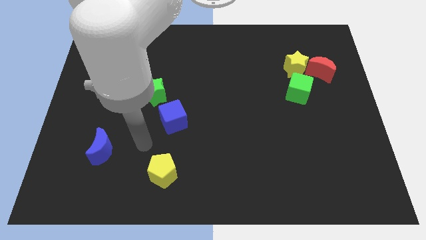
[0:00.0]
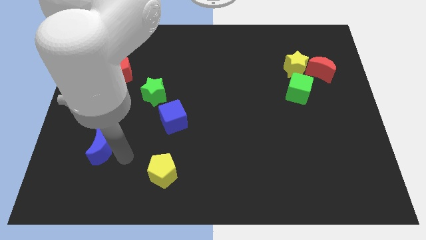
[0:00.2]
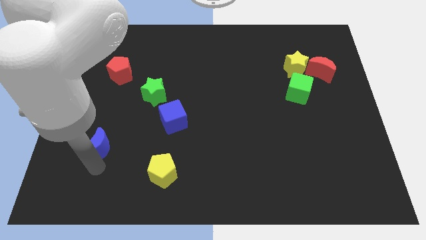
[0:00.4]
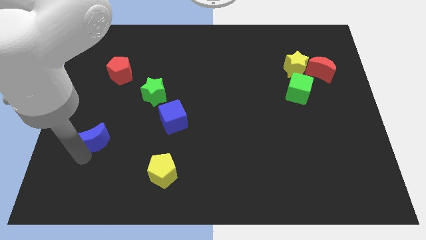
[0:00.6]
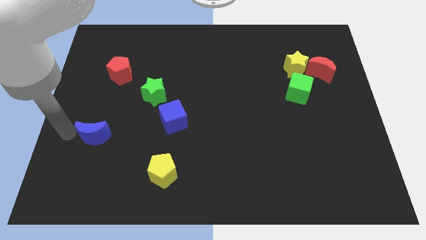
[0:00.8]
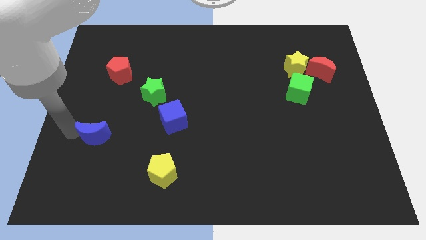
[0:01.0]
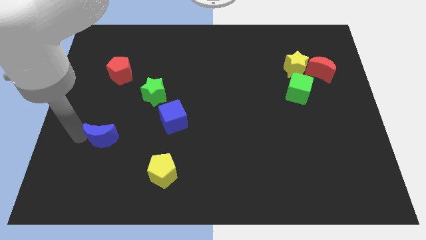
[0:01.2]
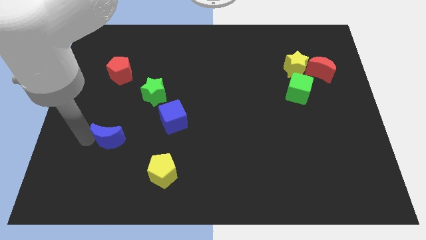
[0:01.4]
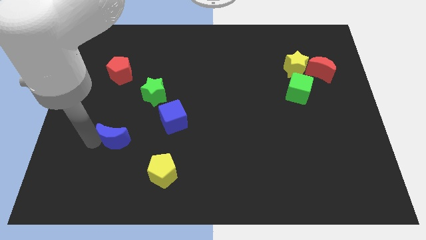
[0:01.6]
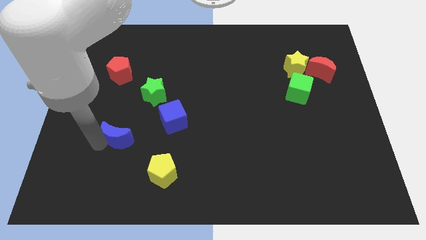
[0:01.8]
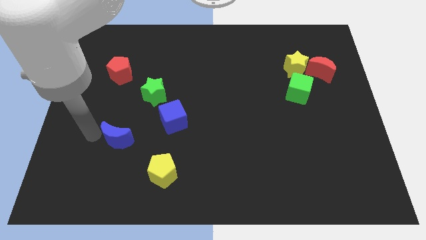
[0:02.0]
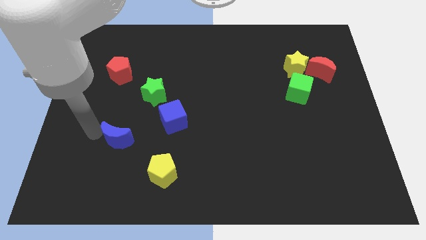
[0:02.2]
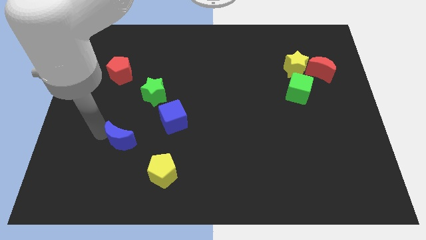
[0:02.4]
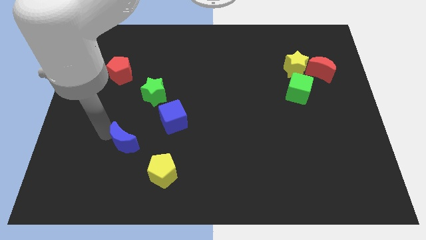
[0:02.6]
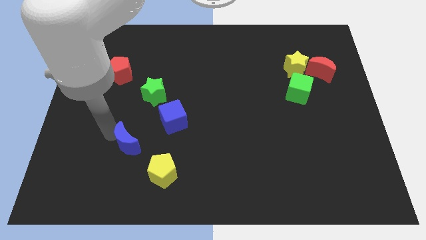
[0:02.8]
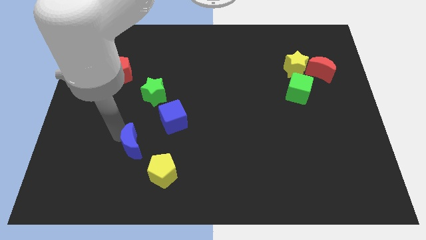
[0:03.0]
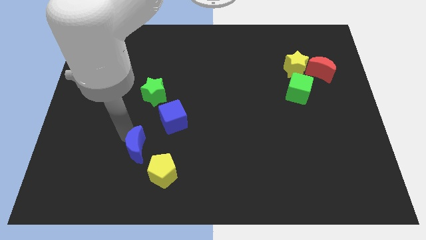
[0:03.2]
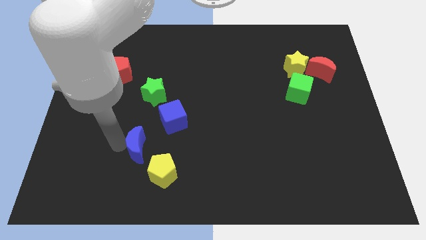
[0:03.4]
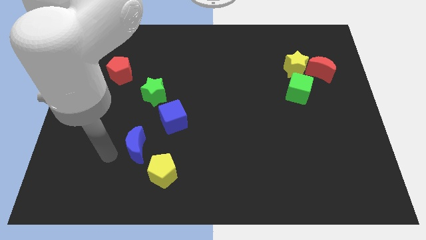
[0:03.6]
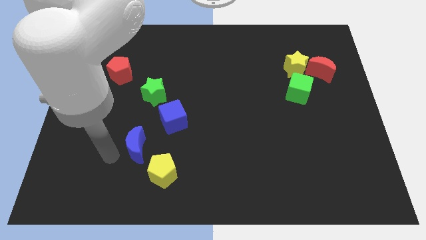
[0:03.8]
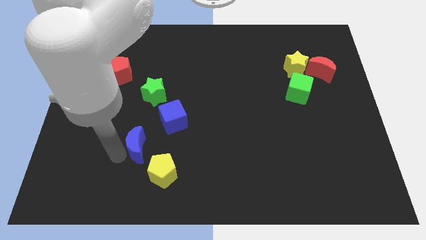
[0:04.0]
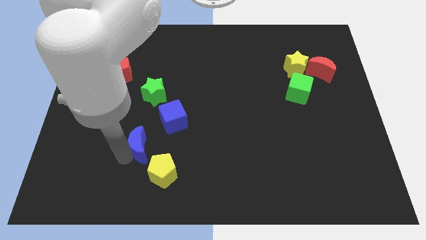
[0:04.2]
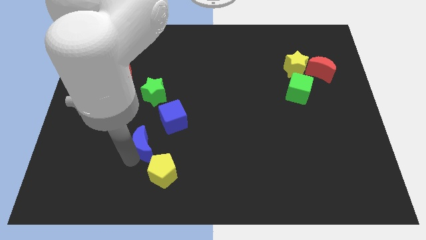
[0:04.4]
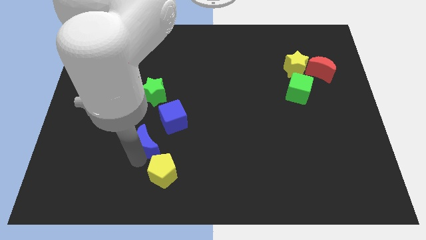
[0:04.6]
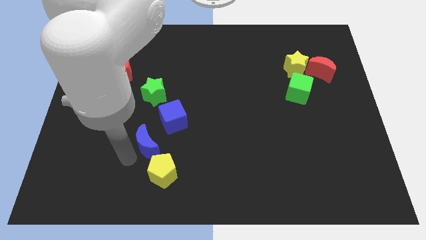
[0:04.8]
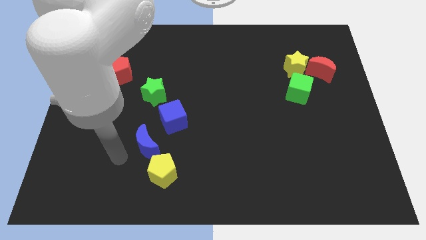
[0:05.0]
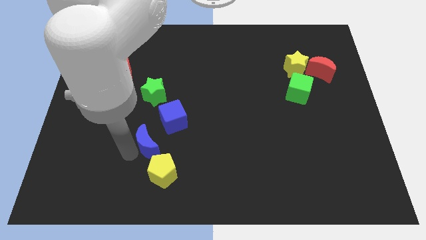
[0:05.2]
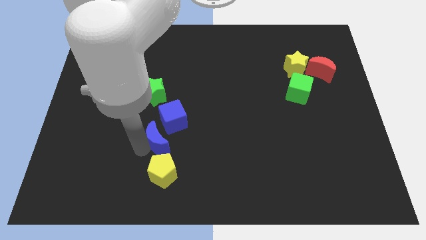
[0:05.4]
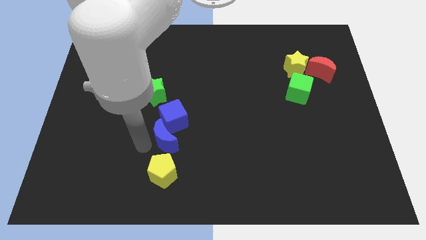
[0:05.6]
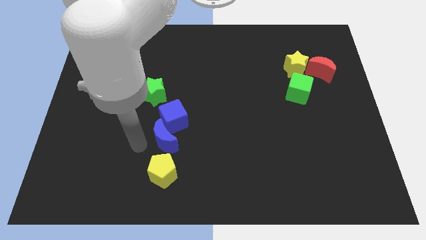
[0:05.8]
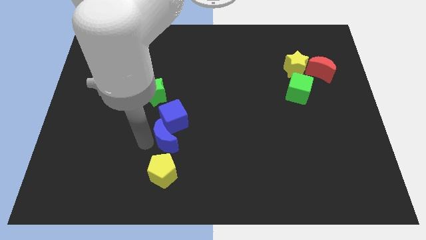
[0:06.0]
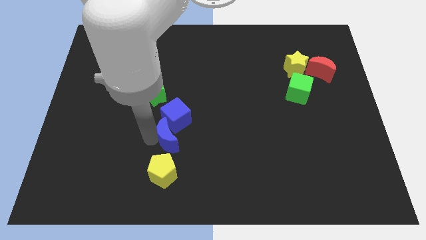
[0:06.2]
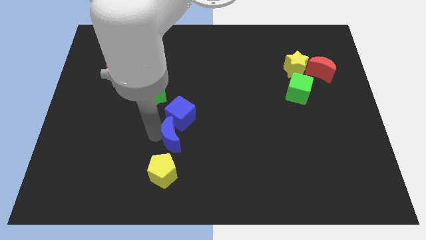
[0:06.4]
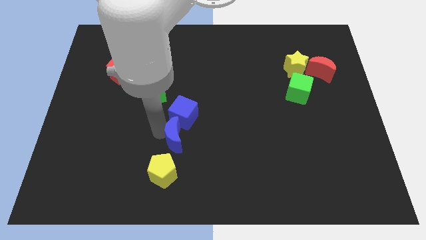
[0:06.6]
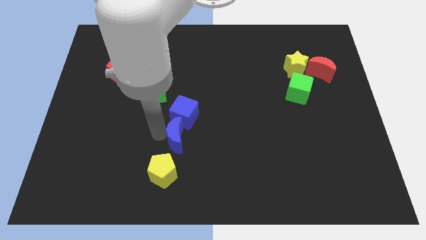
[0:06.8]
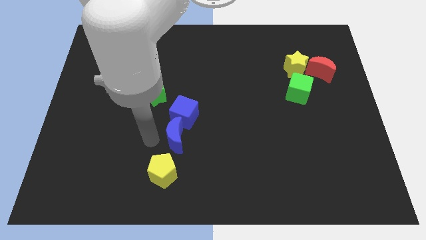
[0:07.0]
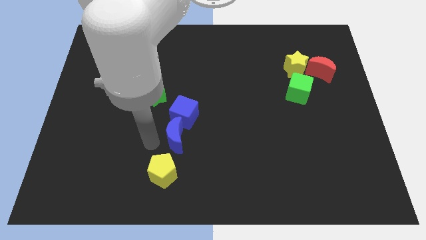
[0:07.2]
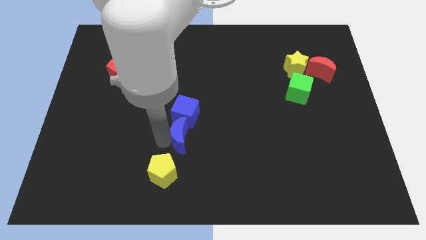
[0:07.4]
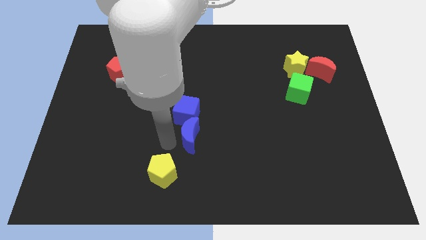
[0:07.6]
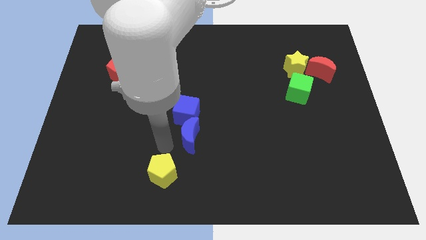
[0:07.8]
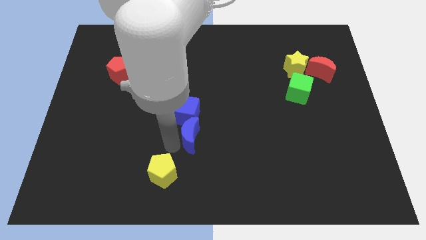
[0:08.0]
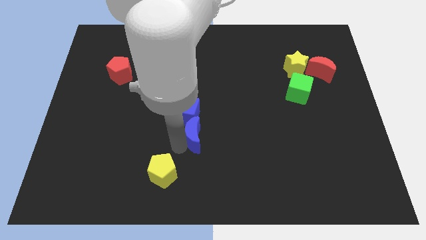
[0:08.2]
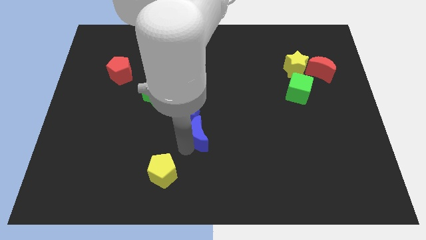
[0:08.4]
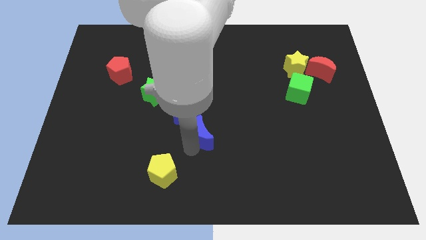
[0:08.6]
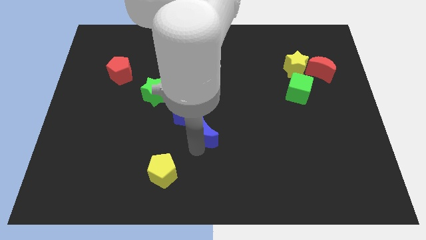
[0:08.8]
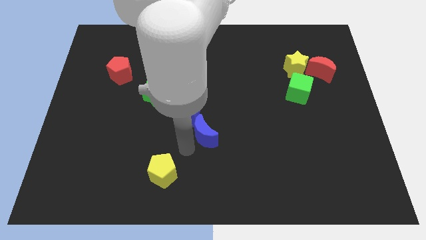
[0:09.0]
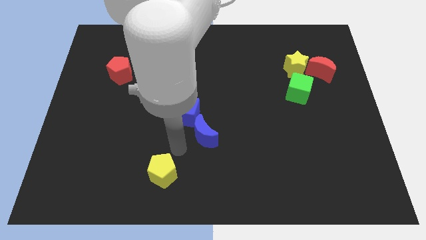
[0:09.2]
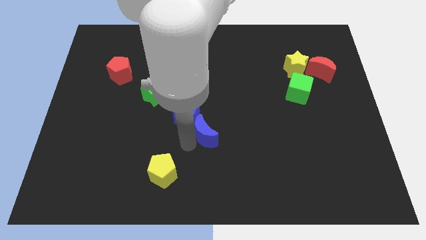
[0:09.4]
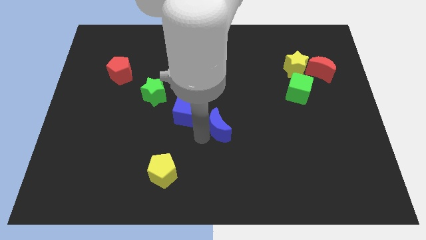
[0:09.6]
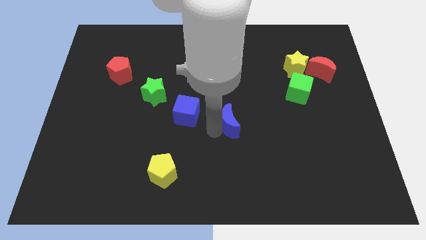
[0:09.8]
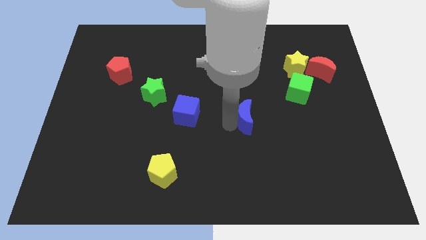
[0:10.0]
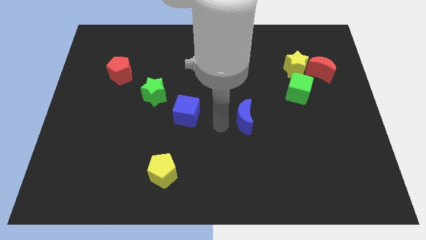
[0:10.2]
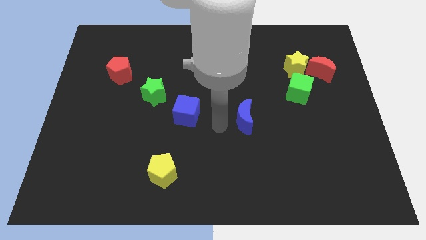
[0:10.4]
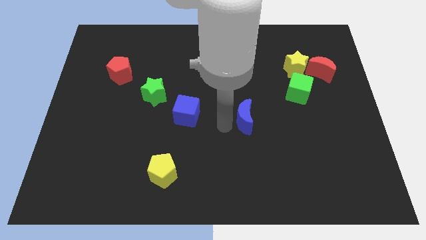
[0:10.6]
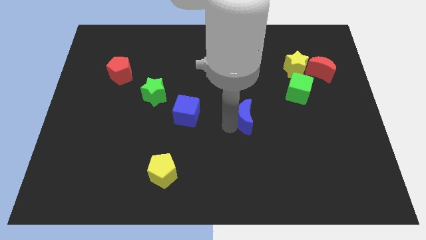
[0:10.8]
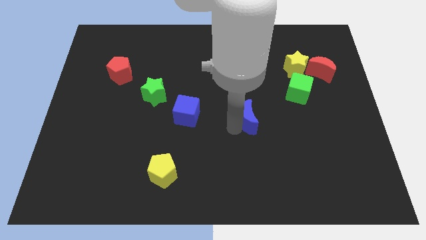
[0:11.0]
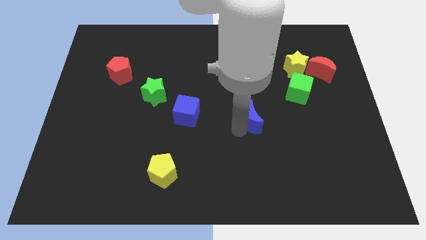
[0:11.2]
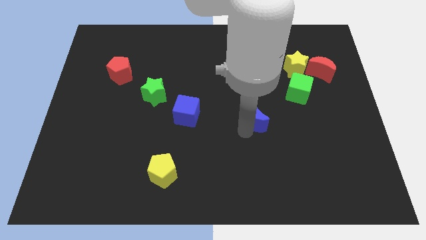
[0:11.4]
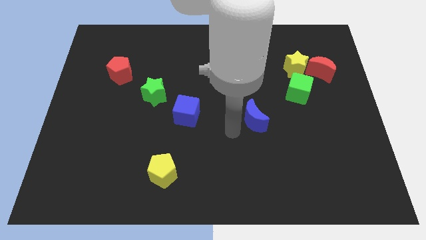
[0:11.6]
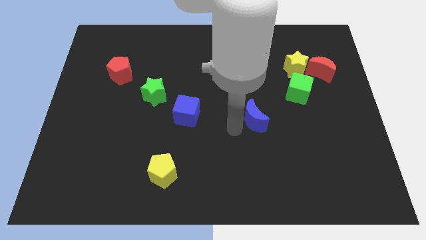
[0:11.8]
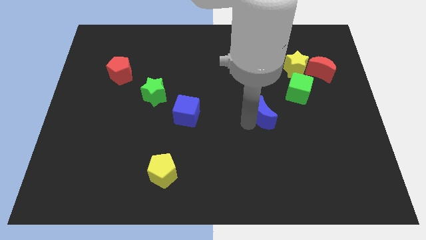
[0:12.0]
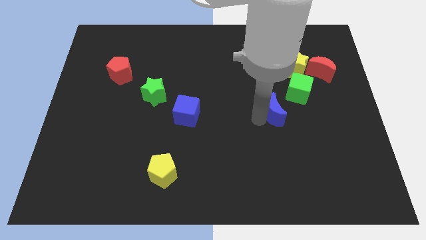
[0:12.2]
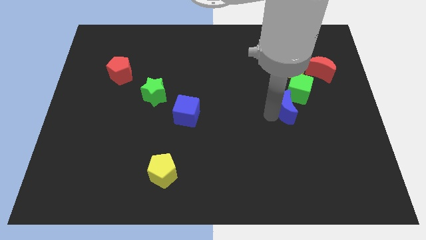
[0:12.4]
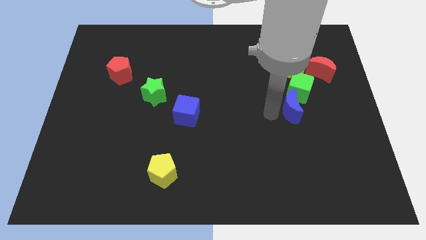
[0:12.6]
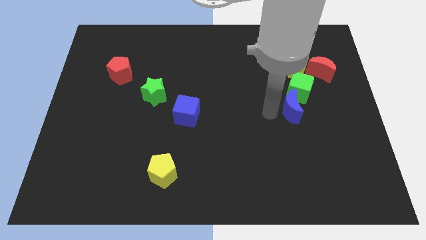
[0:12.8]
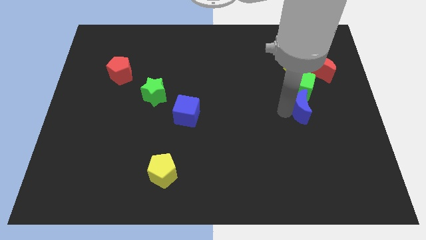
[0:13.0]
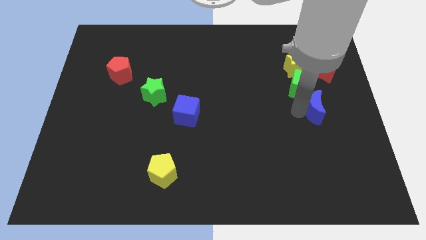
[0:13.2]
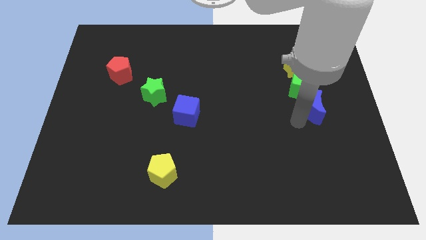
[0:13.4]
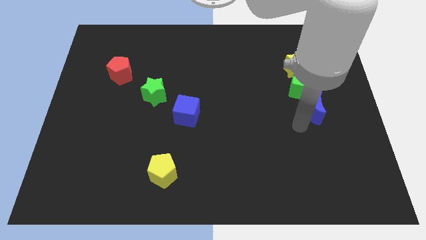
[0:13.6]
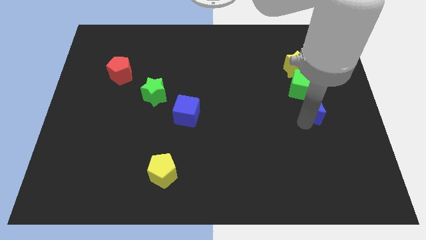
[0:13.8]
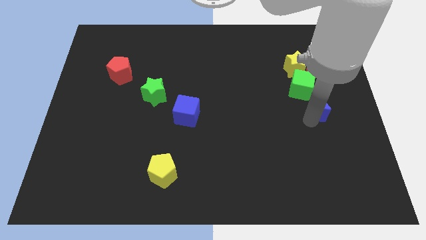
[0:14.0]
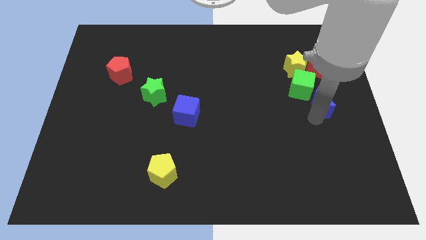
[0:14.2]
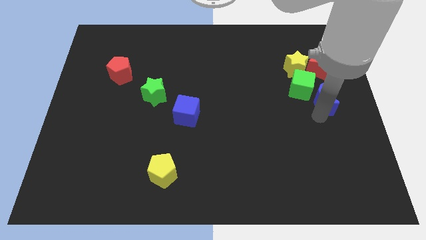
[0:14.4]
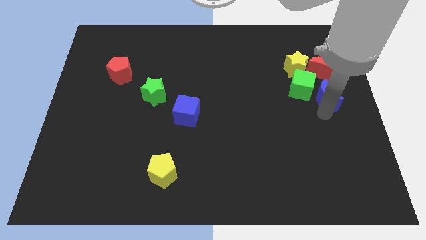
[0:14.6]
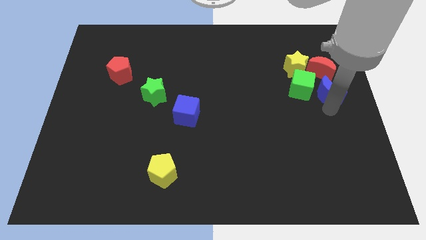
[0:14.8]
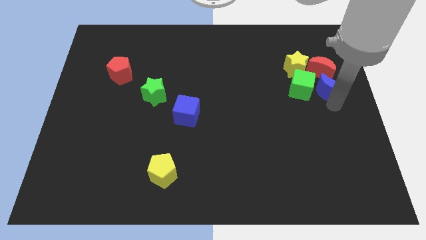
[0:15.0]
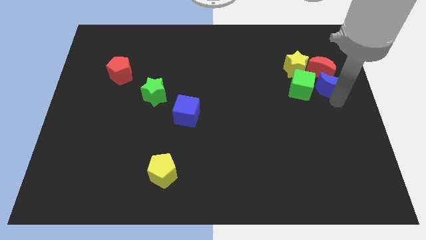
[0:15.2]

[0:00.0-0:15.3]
slide the blue moon towards the red moon

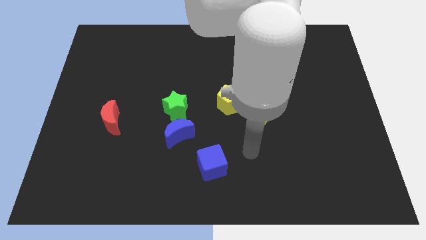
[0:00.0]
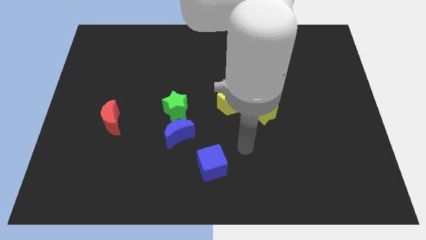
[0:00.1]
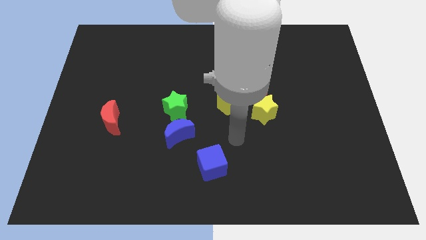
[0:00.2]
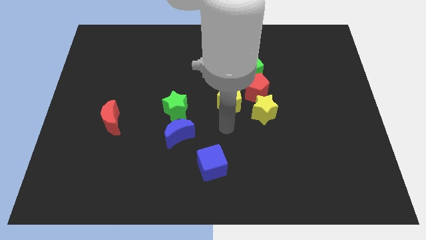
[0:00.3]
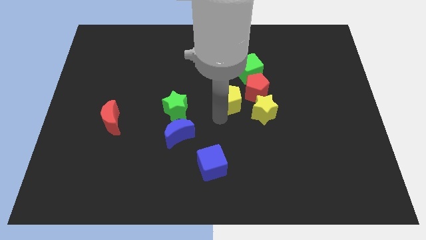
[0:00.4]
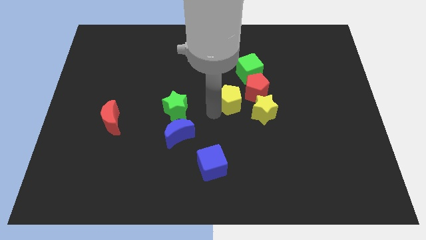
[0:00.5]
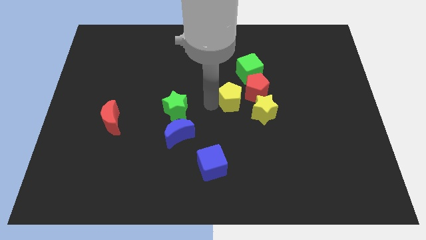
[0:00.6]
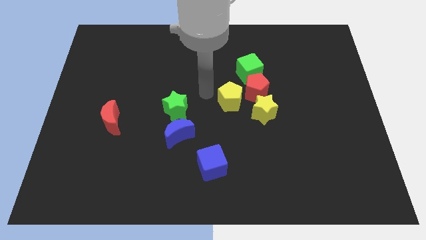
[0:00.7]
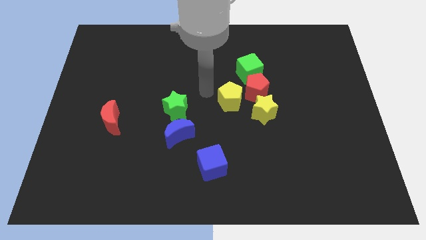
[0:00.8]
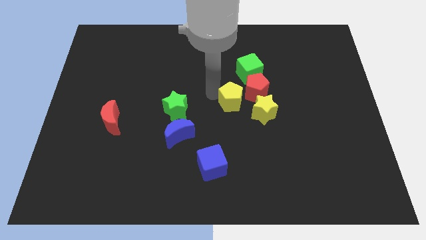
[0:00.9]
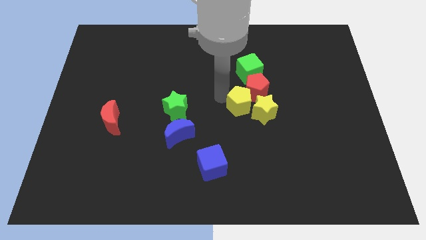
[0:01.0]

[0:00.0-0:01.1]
slide the yellow pentagon next to the yellow star
